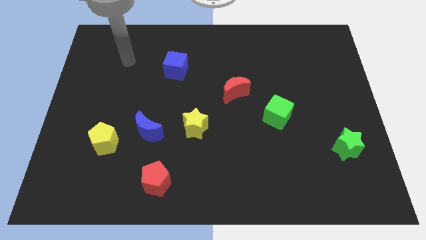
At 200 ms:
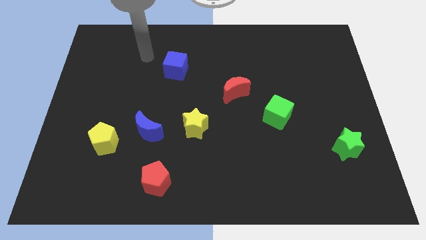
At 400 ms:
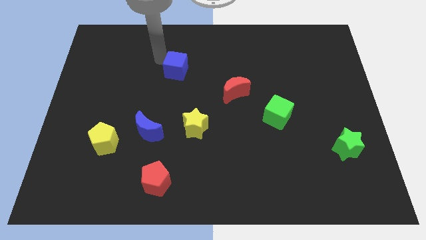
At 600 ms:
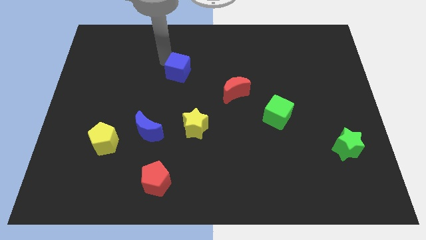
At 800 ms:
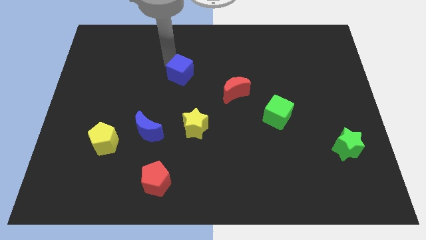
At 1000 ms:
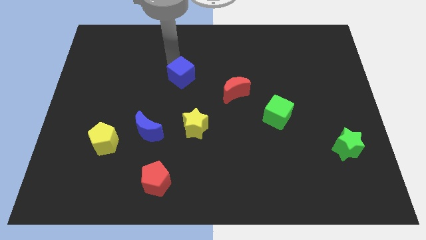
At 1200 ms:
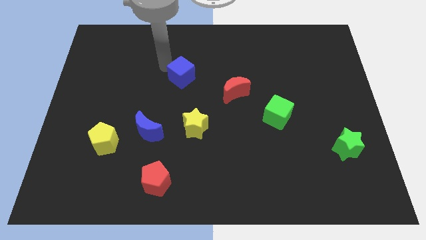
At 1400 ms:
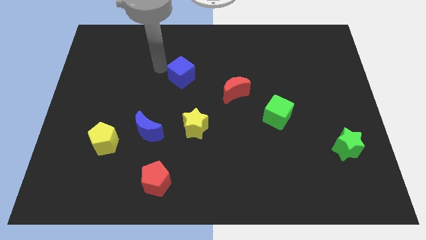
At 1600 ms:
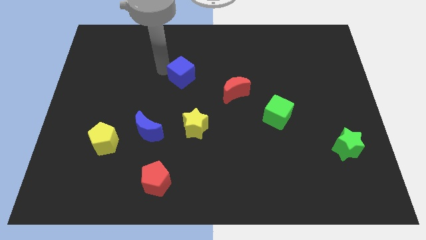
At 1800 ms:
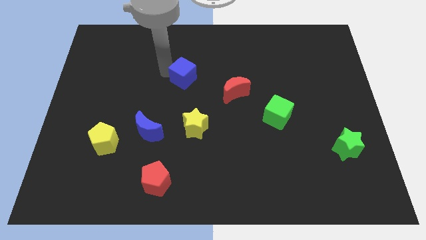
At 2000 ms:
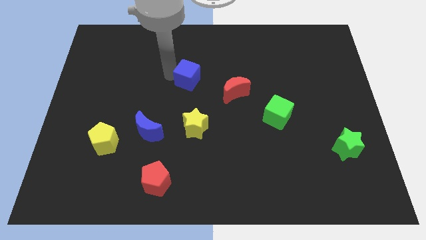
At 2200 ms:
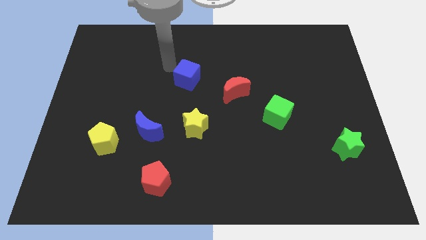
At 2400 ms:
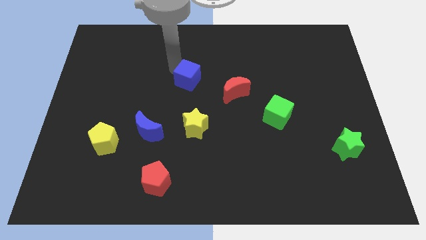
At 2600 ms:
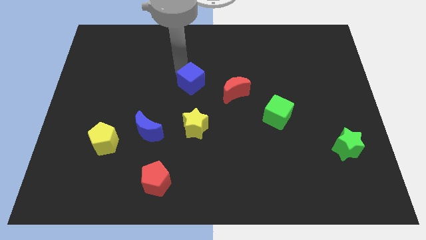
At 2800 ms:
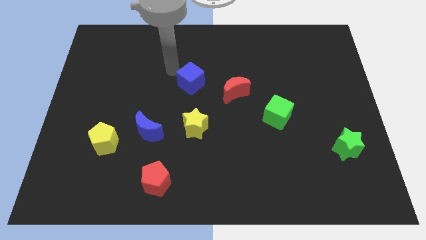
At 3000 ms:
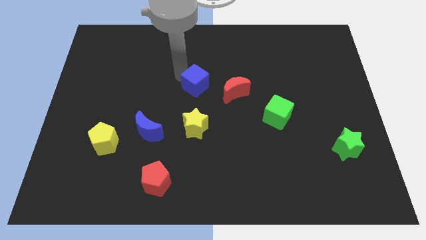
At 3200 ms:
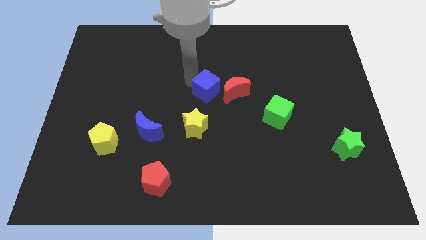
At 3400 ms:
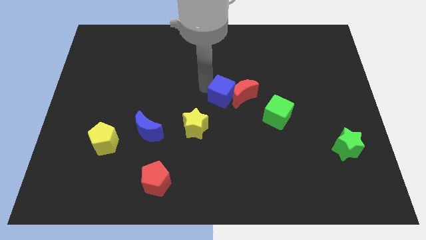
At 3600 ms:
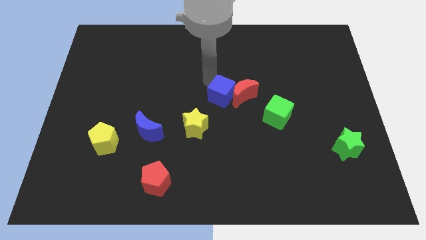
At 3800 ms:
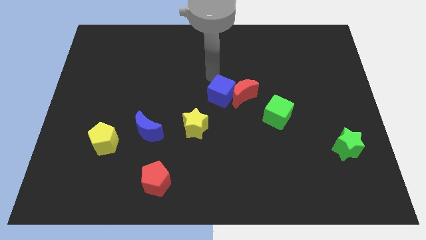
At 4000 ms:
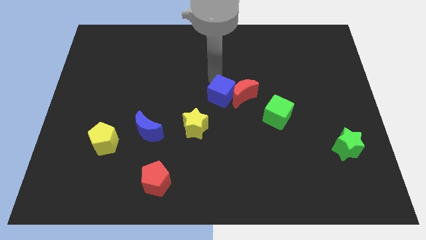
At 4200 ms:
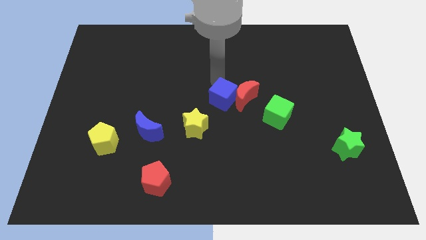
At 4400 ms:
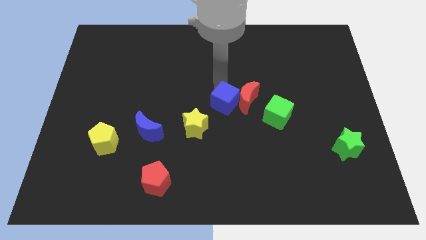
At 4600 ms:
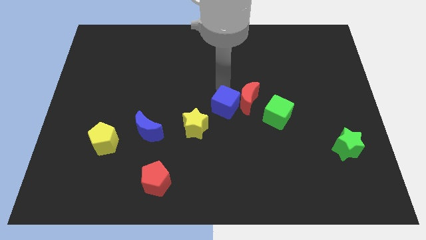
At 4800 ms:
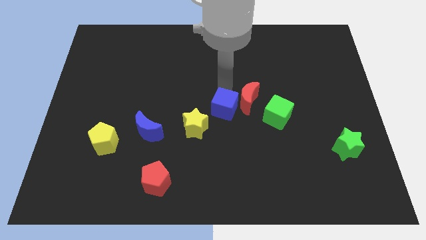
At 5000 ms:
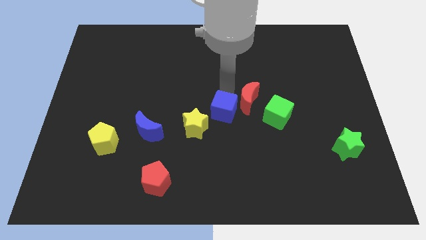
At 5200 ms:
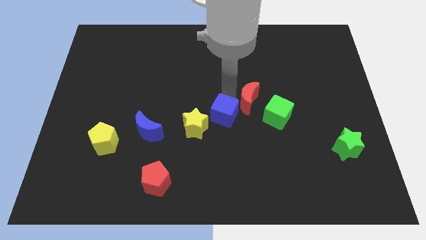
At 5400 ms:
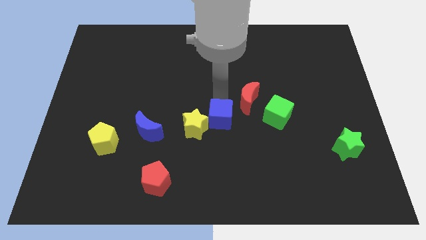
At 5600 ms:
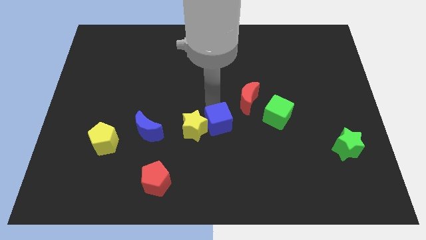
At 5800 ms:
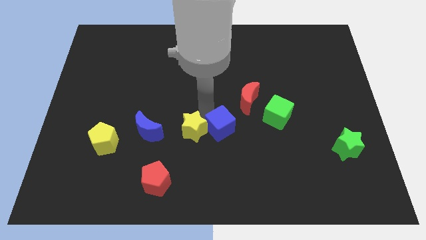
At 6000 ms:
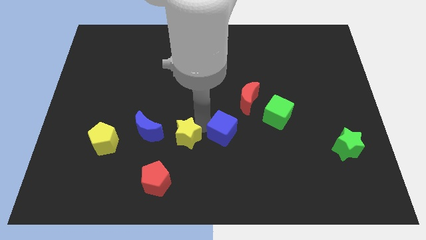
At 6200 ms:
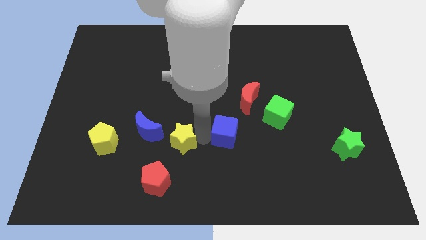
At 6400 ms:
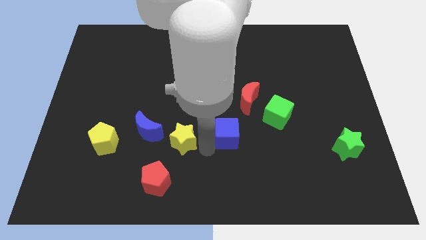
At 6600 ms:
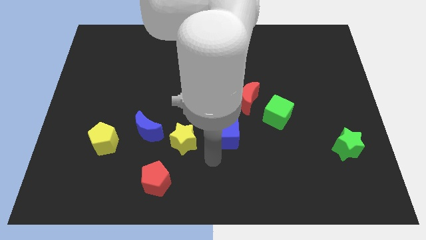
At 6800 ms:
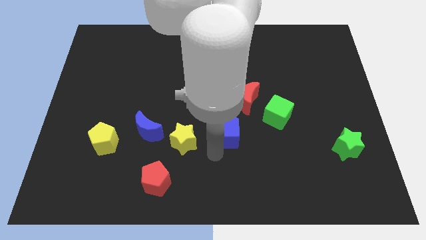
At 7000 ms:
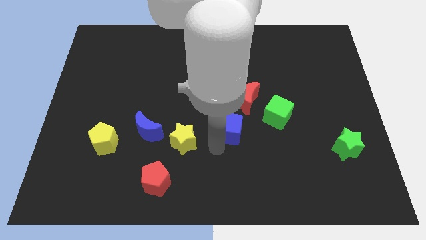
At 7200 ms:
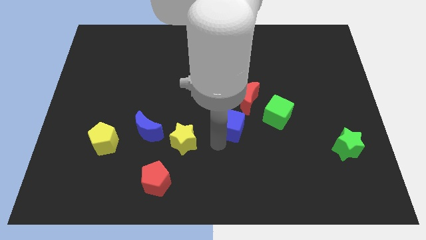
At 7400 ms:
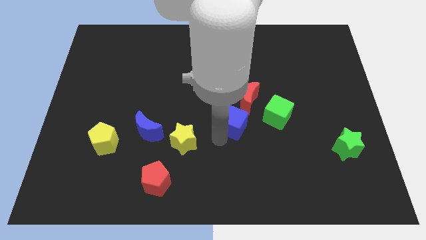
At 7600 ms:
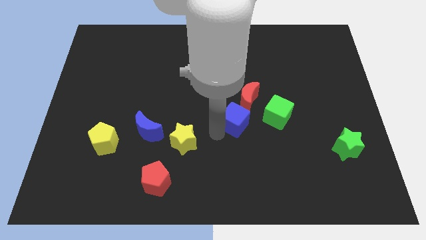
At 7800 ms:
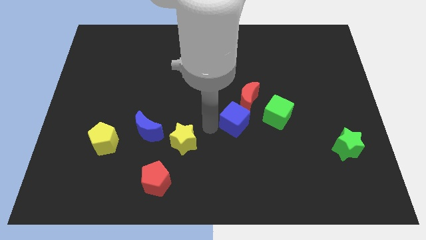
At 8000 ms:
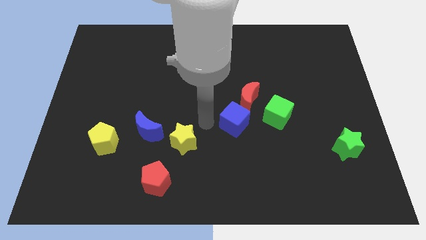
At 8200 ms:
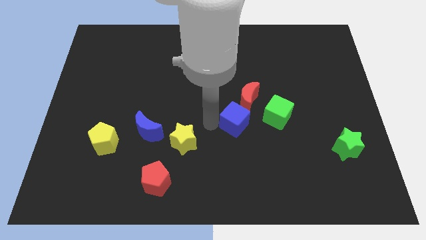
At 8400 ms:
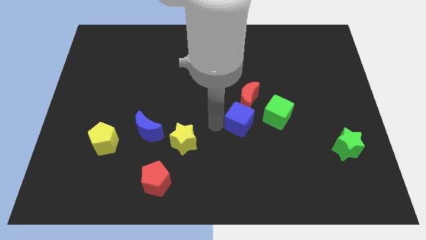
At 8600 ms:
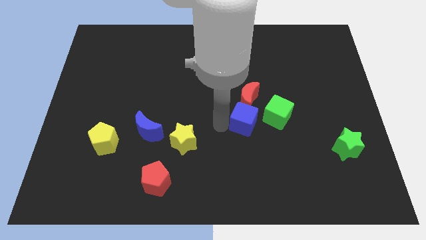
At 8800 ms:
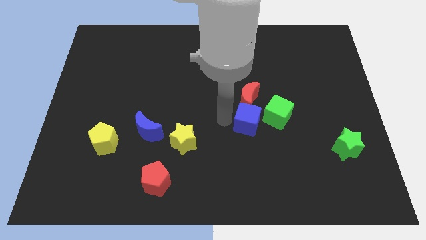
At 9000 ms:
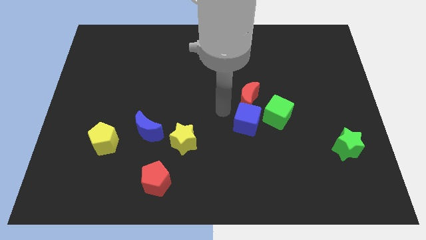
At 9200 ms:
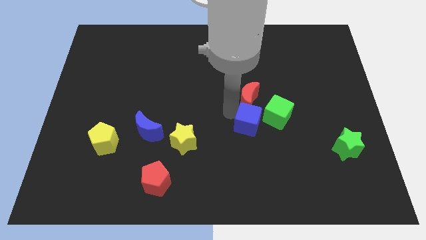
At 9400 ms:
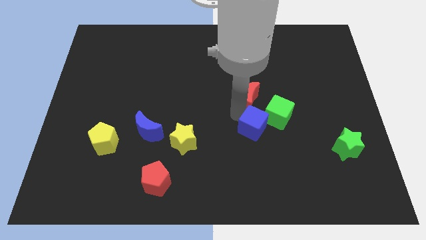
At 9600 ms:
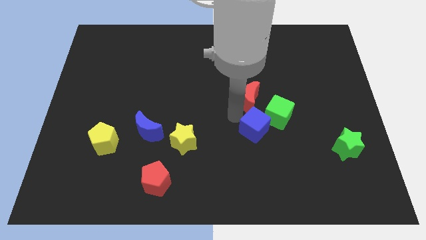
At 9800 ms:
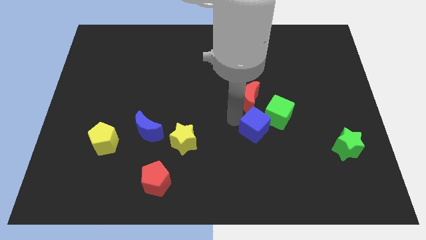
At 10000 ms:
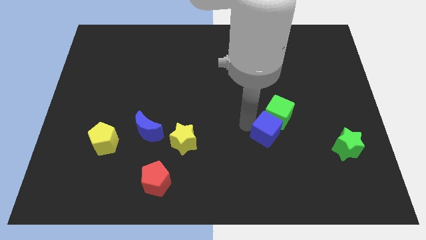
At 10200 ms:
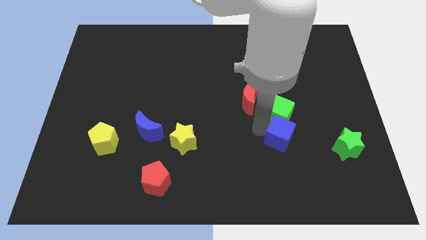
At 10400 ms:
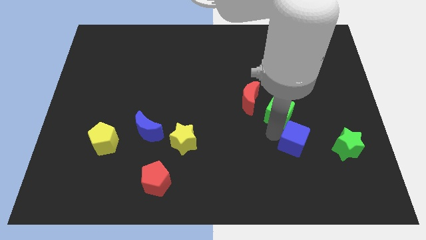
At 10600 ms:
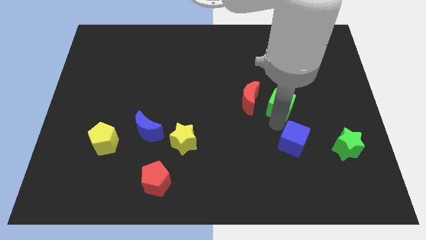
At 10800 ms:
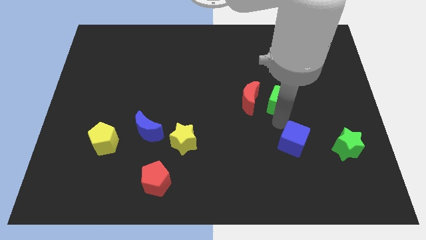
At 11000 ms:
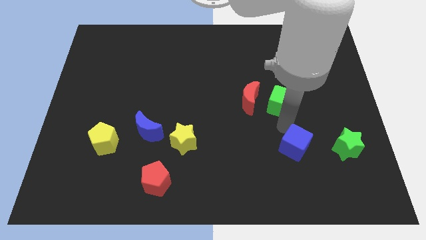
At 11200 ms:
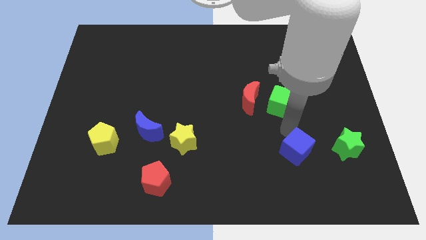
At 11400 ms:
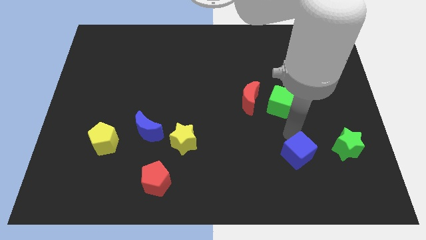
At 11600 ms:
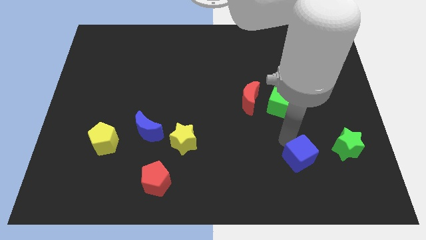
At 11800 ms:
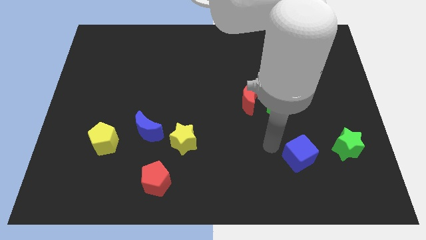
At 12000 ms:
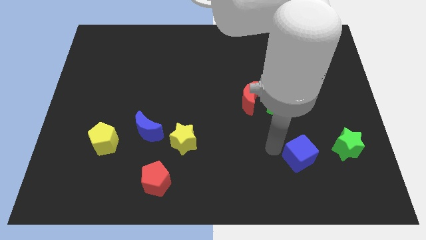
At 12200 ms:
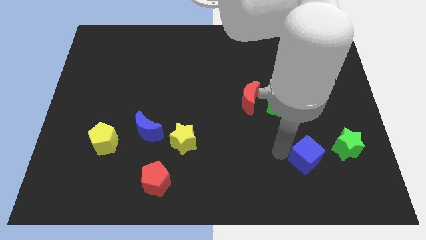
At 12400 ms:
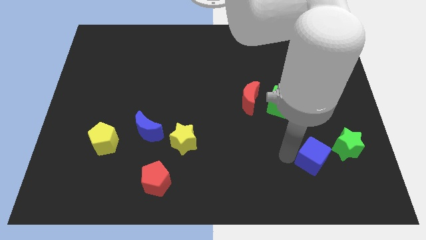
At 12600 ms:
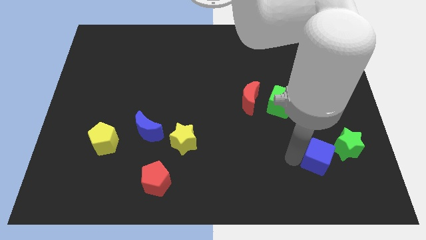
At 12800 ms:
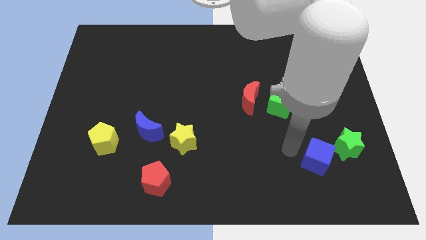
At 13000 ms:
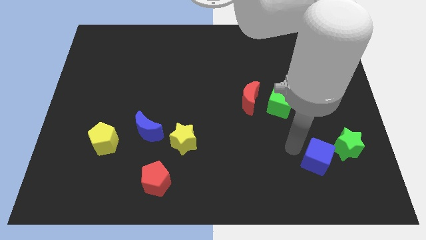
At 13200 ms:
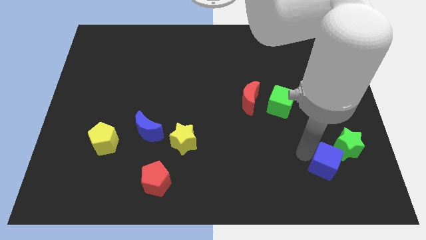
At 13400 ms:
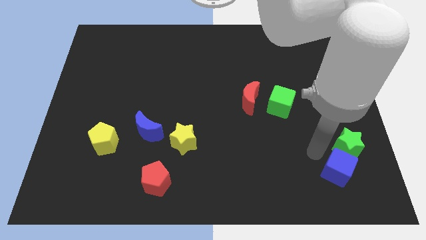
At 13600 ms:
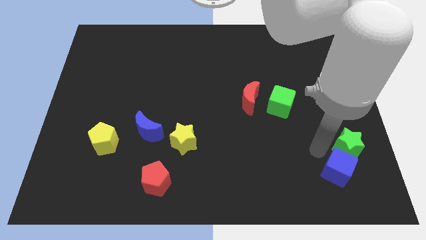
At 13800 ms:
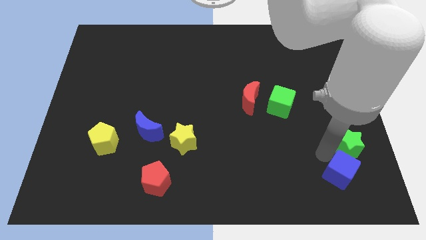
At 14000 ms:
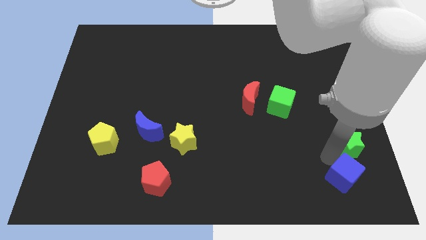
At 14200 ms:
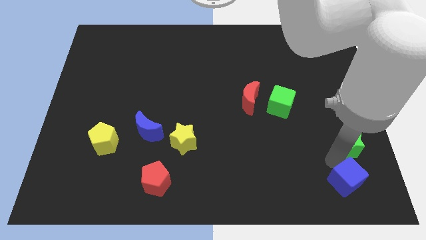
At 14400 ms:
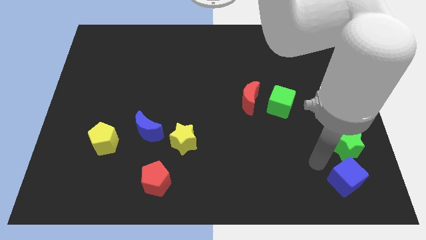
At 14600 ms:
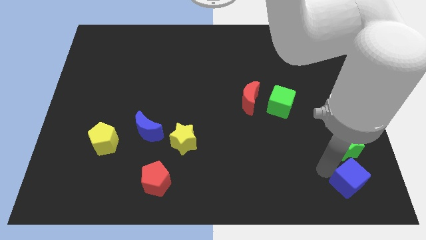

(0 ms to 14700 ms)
slide the blue cube to the bottom right of the board
